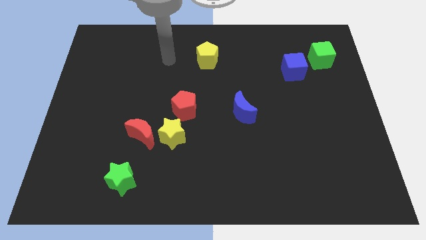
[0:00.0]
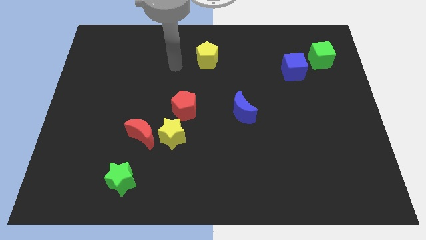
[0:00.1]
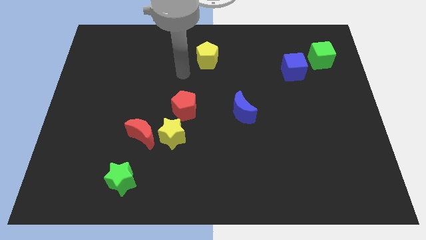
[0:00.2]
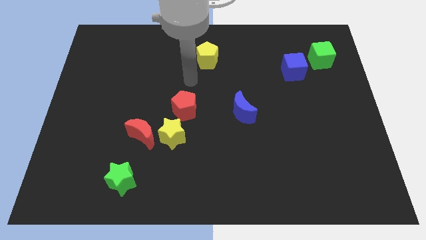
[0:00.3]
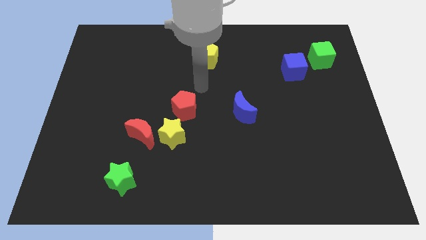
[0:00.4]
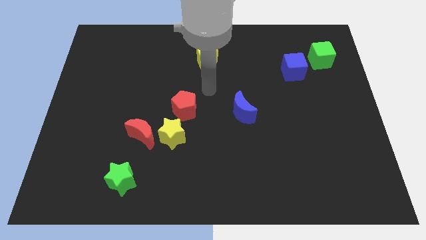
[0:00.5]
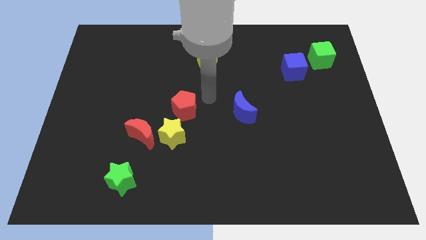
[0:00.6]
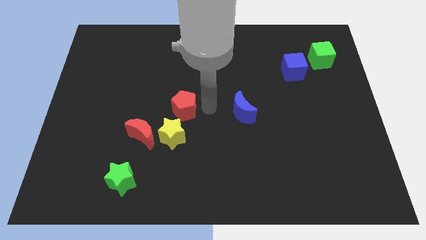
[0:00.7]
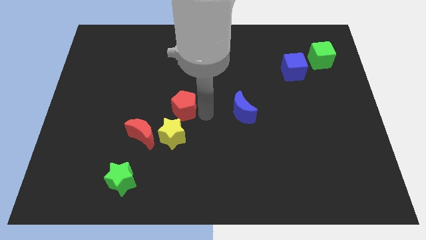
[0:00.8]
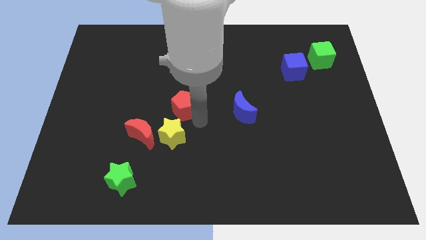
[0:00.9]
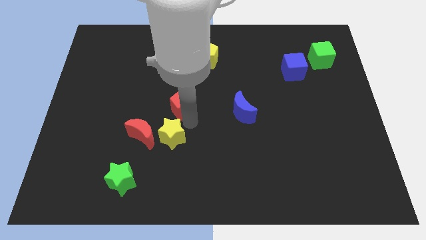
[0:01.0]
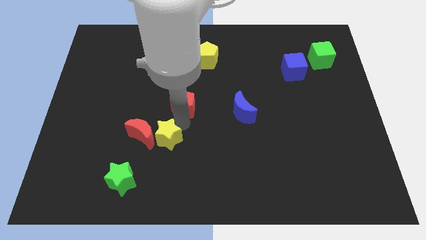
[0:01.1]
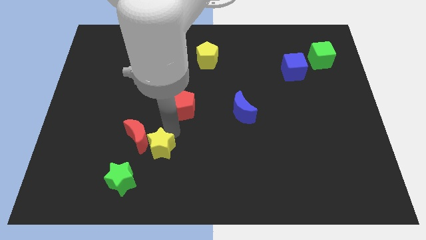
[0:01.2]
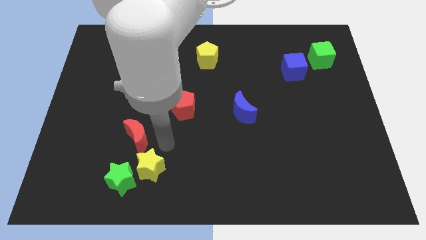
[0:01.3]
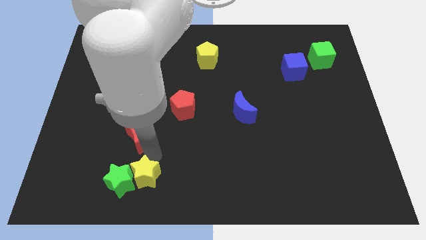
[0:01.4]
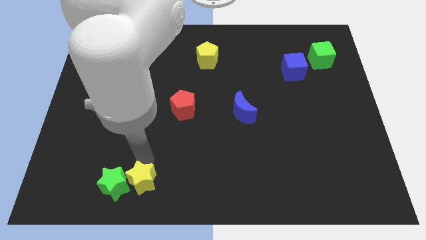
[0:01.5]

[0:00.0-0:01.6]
separate the red moon from the yellow star

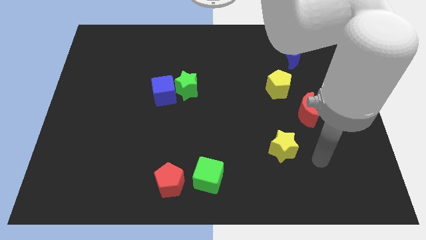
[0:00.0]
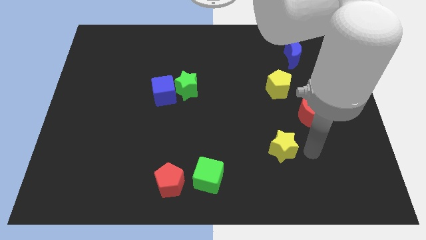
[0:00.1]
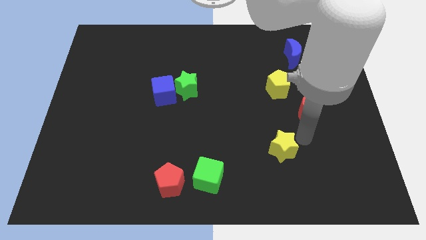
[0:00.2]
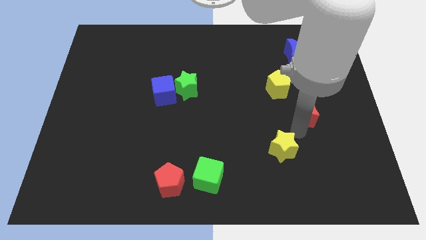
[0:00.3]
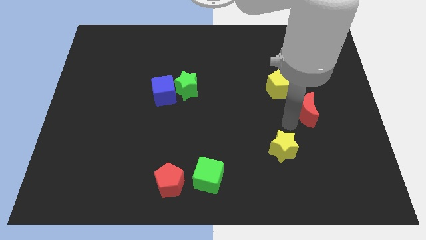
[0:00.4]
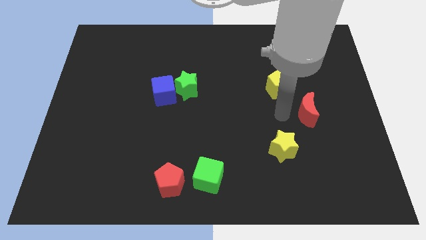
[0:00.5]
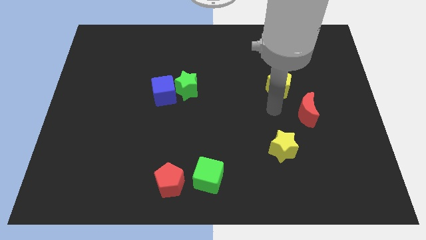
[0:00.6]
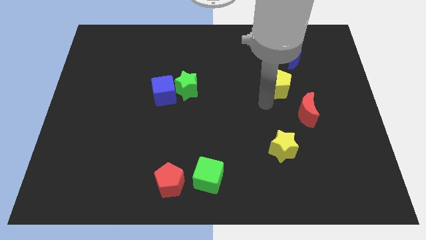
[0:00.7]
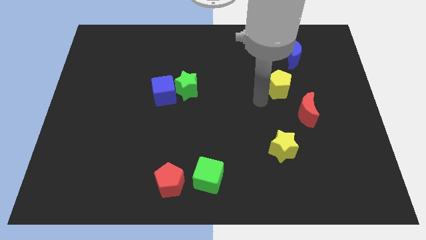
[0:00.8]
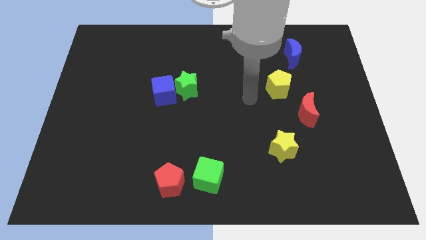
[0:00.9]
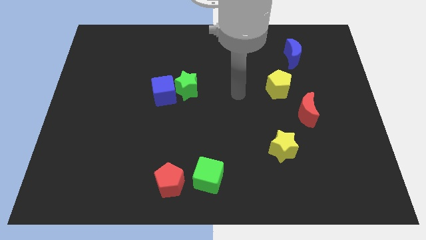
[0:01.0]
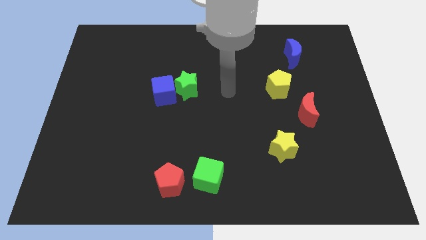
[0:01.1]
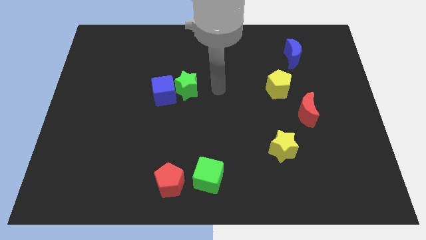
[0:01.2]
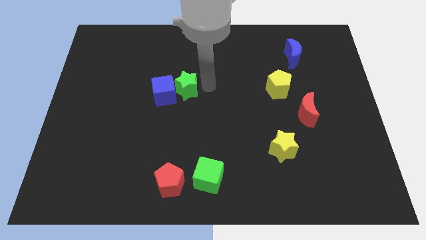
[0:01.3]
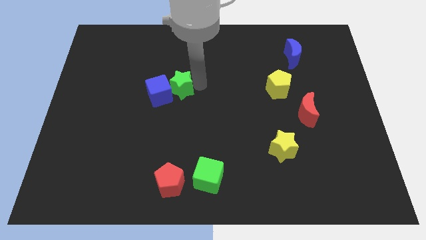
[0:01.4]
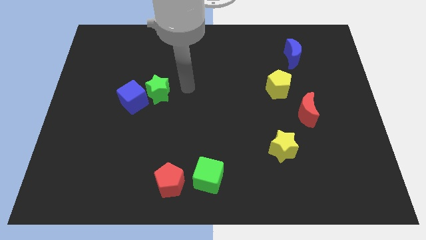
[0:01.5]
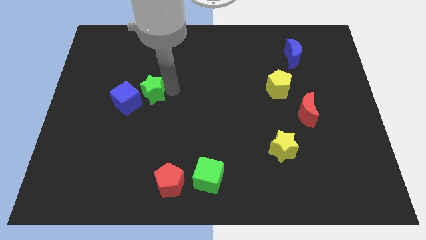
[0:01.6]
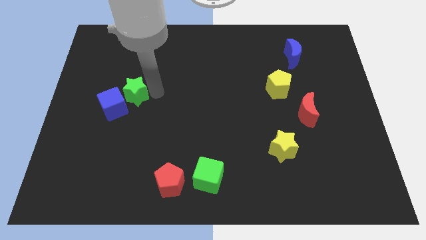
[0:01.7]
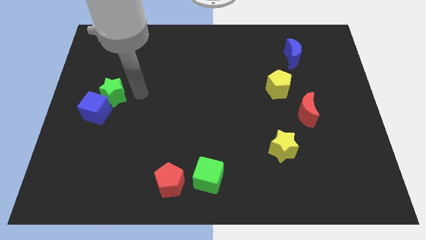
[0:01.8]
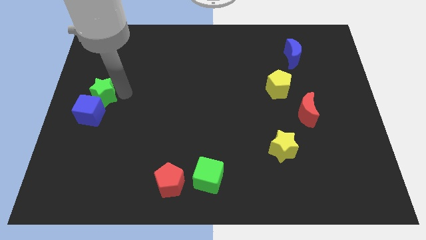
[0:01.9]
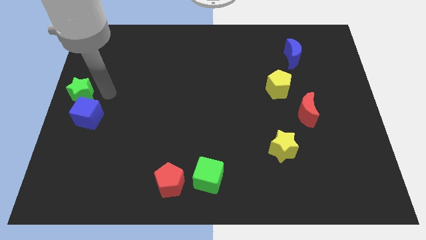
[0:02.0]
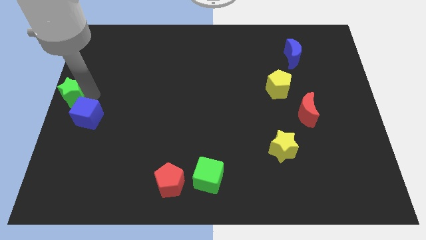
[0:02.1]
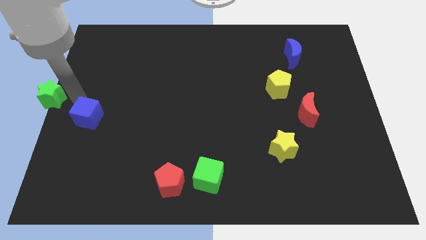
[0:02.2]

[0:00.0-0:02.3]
pull the blue cube apart from the green star

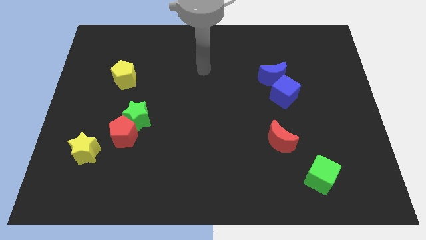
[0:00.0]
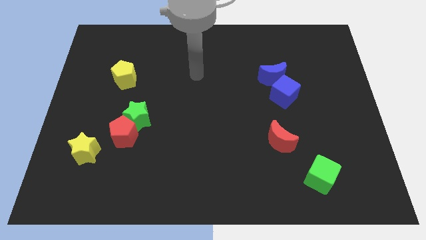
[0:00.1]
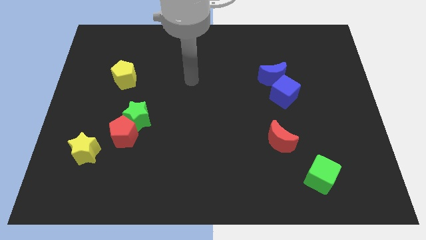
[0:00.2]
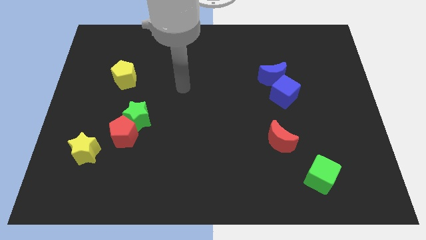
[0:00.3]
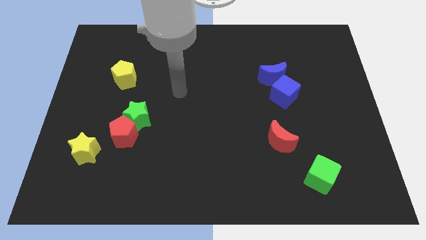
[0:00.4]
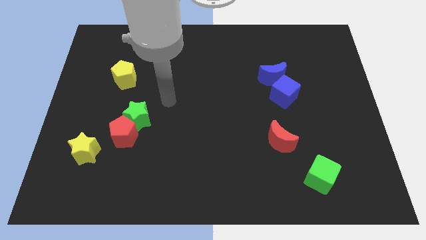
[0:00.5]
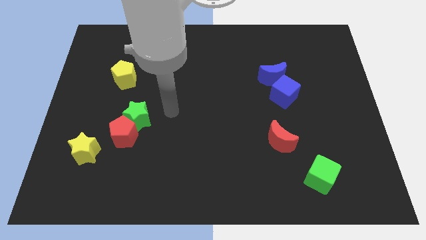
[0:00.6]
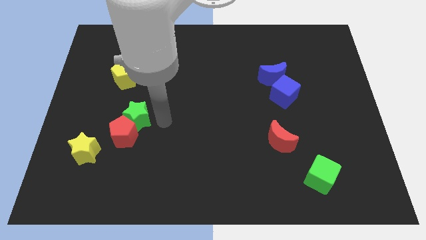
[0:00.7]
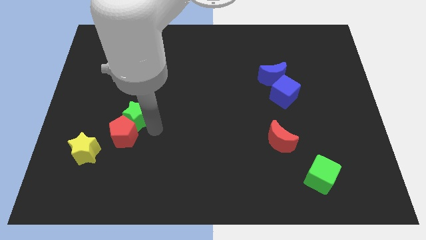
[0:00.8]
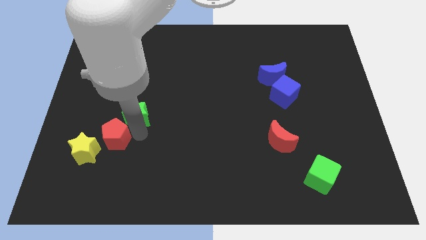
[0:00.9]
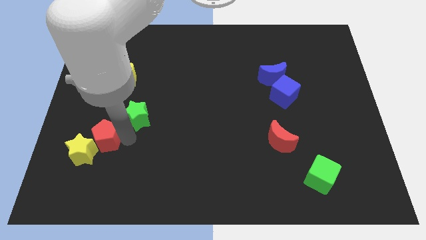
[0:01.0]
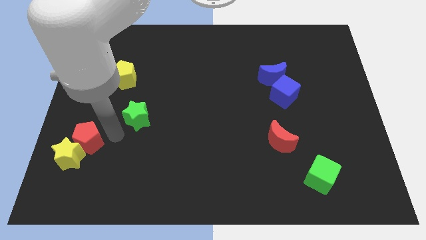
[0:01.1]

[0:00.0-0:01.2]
pull the green star apart from the red pentagon

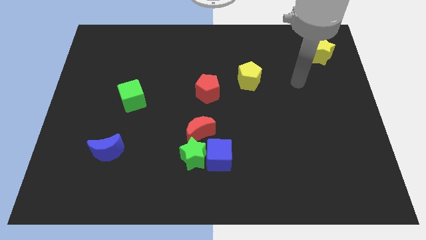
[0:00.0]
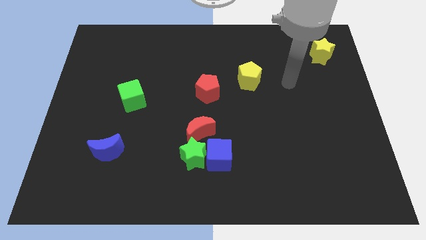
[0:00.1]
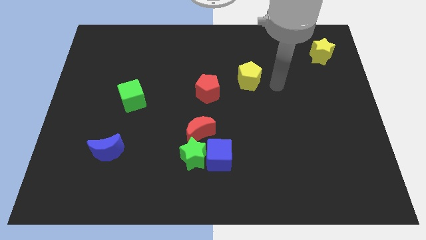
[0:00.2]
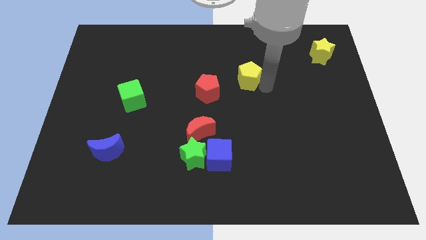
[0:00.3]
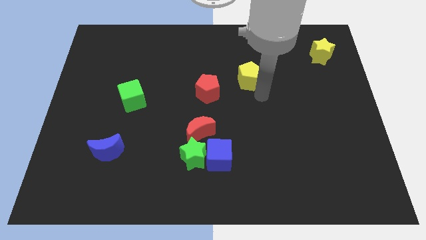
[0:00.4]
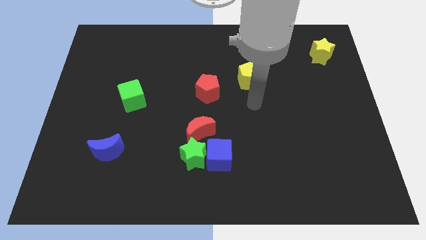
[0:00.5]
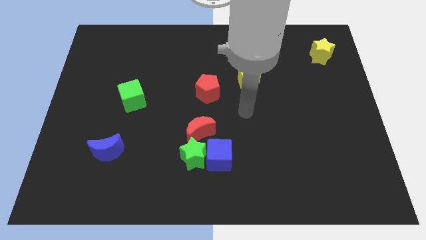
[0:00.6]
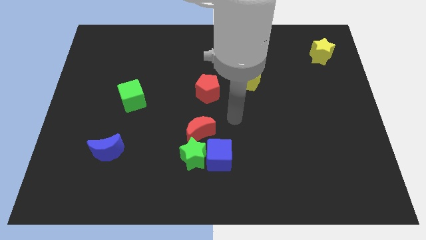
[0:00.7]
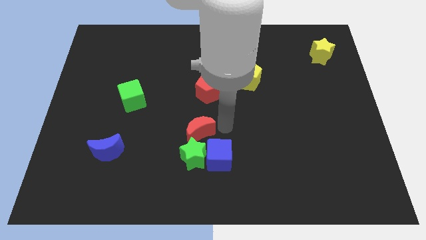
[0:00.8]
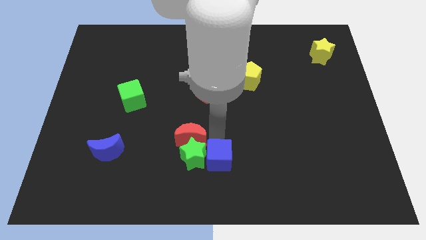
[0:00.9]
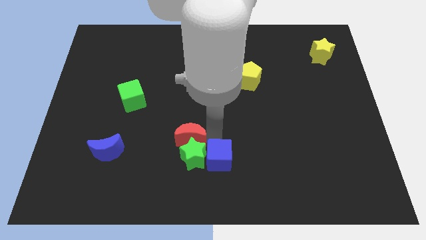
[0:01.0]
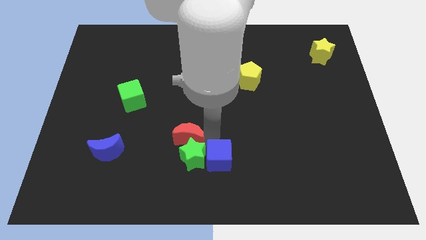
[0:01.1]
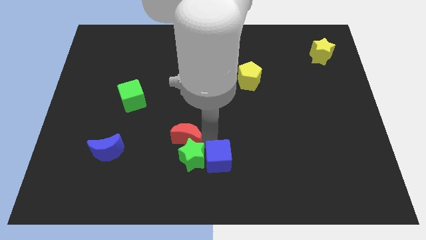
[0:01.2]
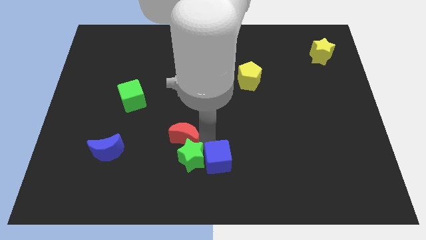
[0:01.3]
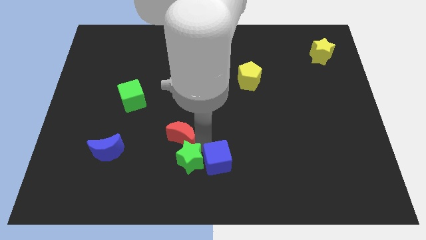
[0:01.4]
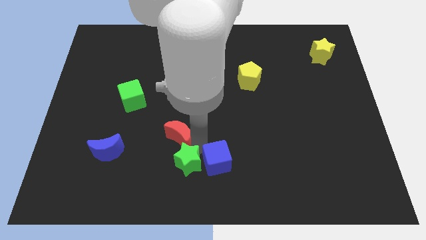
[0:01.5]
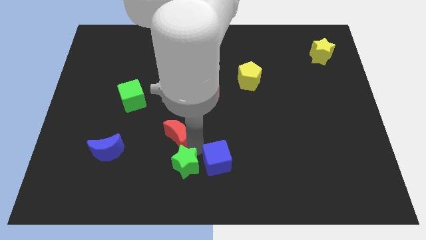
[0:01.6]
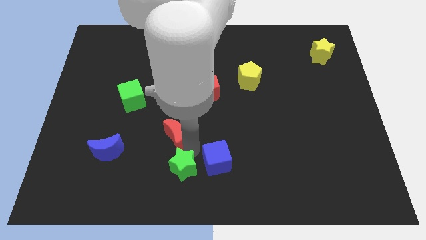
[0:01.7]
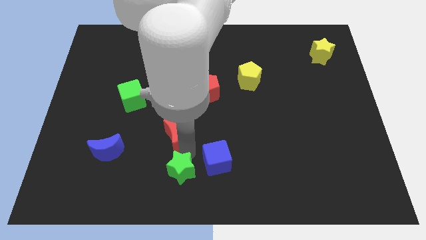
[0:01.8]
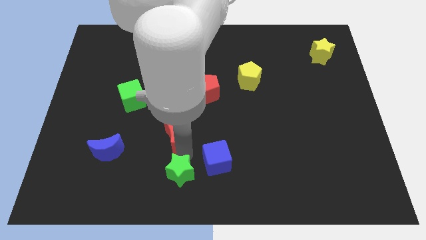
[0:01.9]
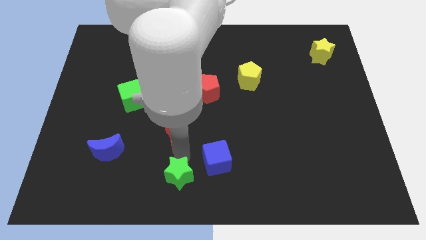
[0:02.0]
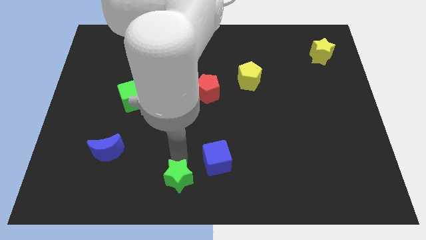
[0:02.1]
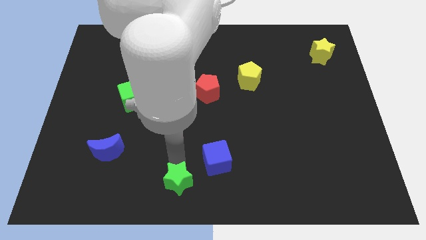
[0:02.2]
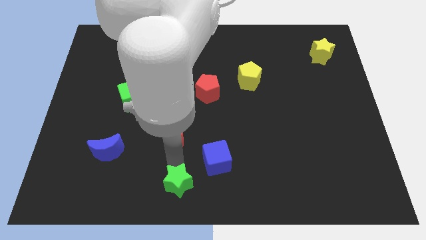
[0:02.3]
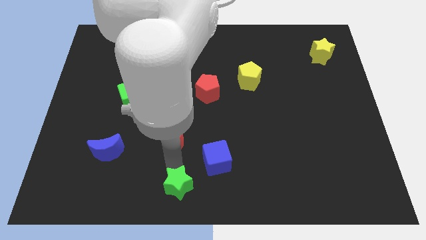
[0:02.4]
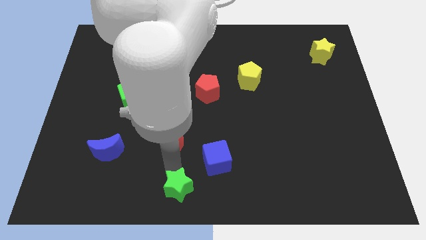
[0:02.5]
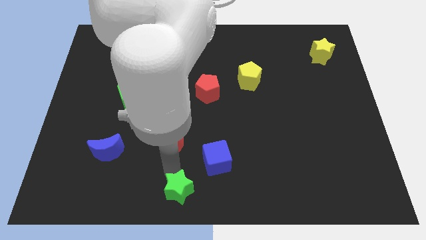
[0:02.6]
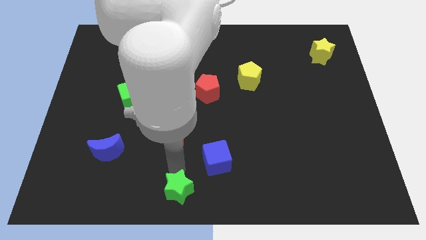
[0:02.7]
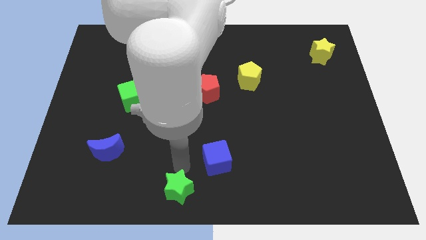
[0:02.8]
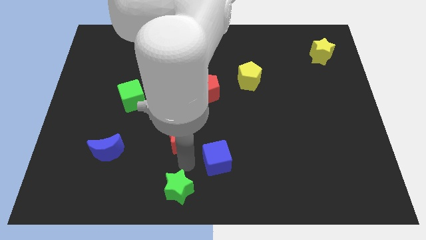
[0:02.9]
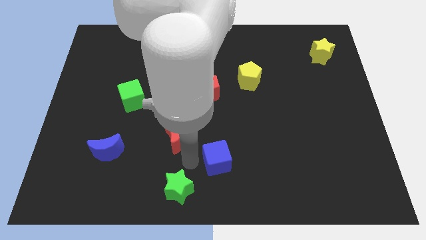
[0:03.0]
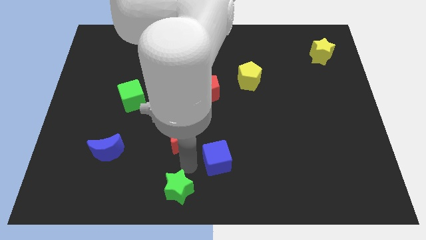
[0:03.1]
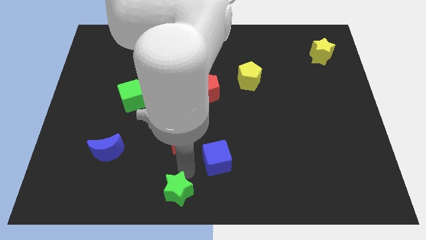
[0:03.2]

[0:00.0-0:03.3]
separate the green star from the blue cube and red moon

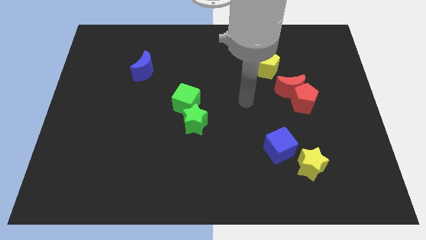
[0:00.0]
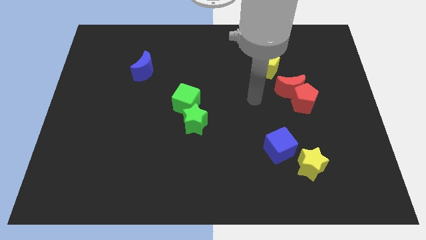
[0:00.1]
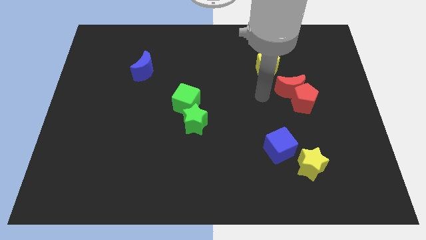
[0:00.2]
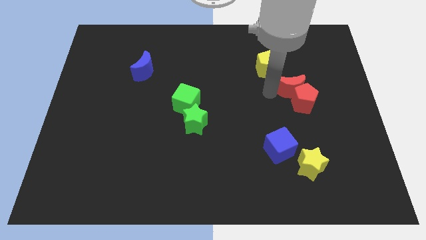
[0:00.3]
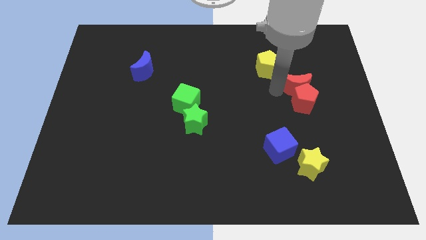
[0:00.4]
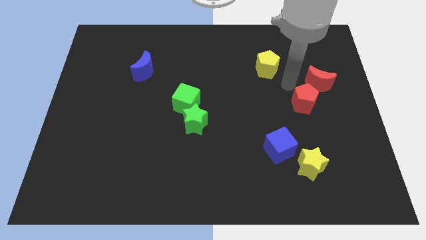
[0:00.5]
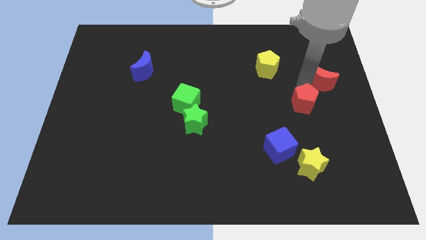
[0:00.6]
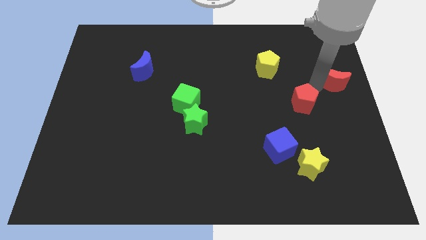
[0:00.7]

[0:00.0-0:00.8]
pull the red pentagon apart from the red moon
